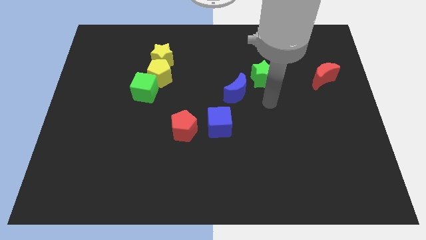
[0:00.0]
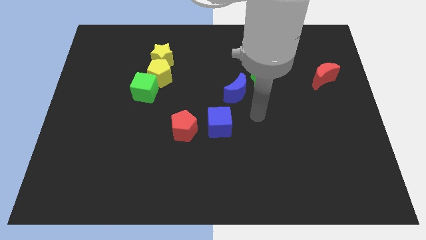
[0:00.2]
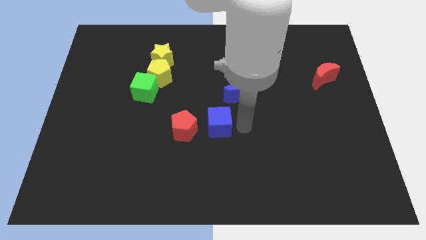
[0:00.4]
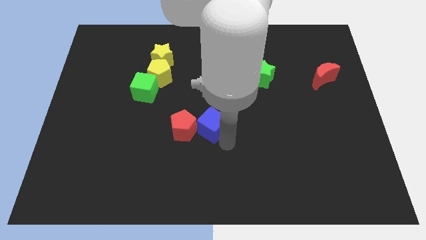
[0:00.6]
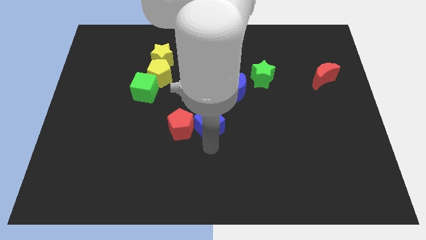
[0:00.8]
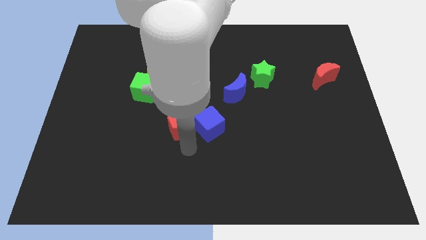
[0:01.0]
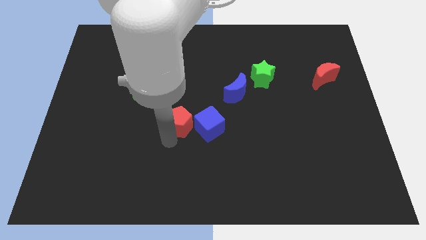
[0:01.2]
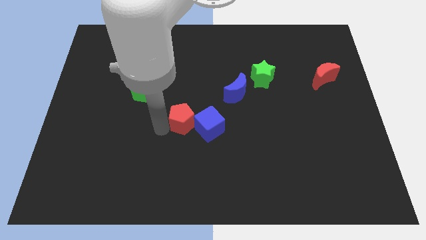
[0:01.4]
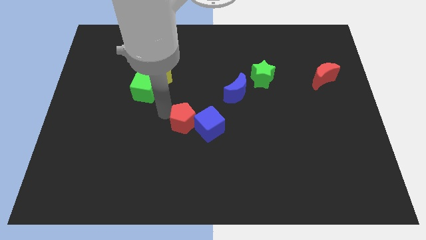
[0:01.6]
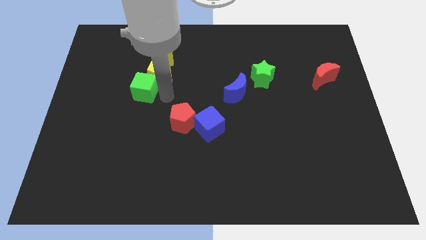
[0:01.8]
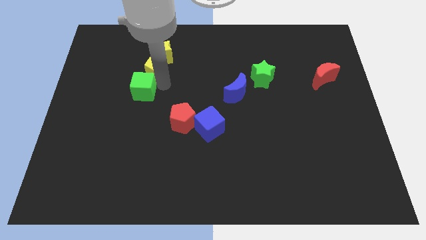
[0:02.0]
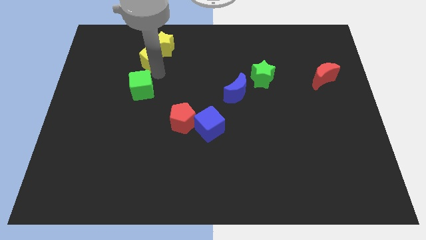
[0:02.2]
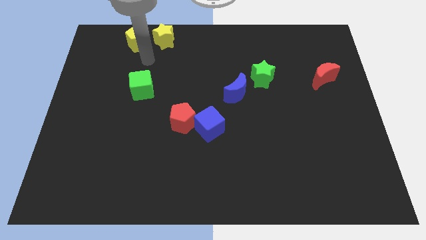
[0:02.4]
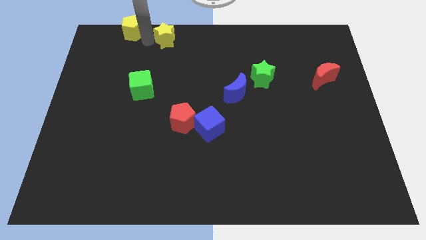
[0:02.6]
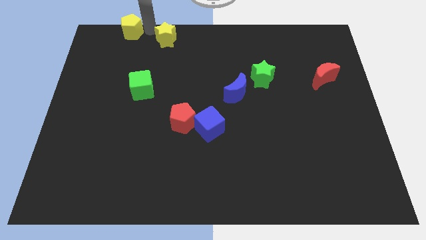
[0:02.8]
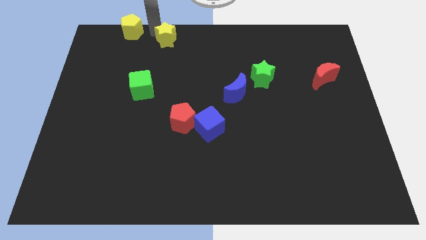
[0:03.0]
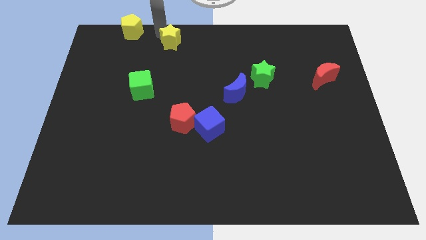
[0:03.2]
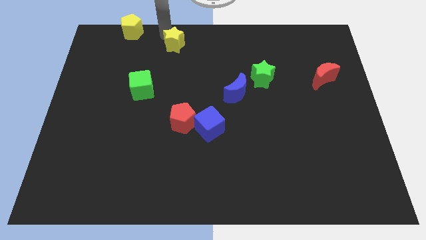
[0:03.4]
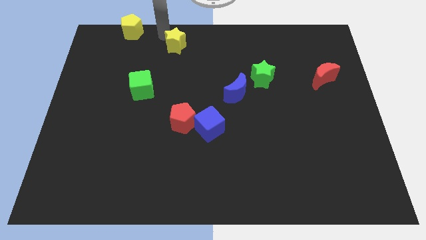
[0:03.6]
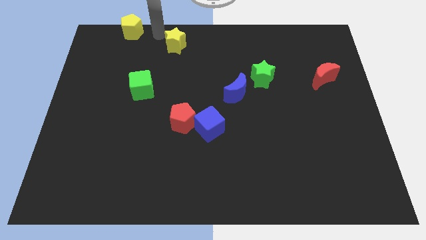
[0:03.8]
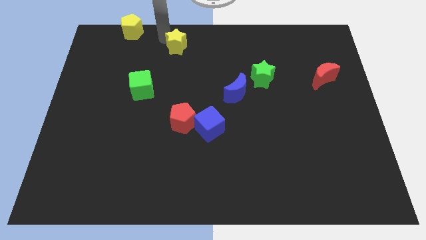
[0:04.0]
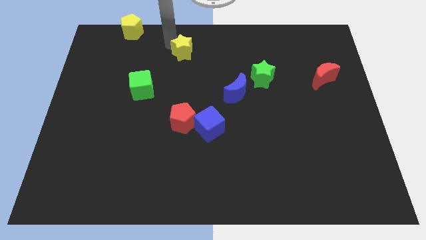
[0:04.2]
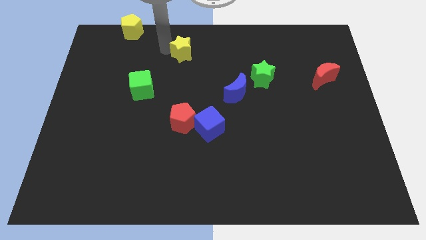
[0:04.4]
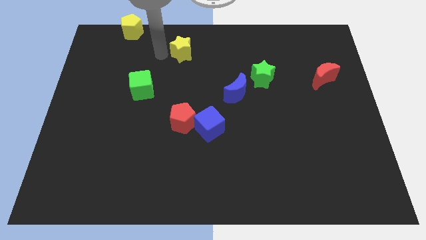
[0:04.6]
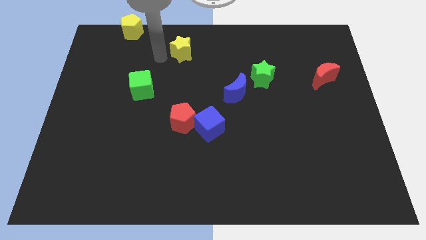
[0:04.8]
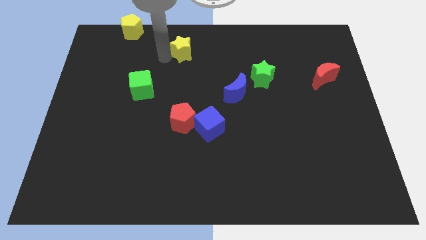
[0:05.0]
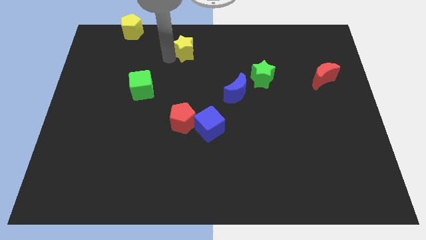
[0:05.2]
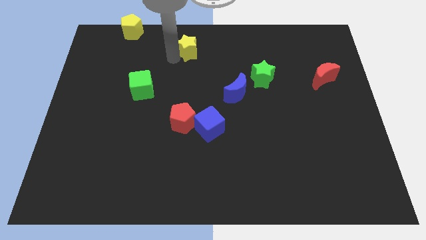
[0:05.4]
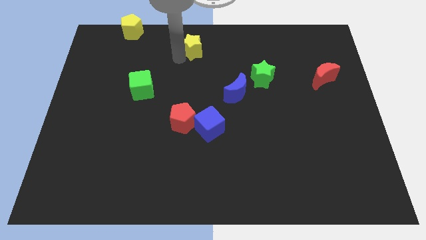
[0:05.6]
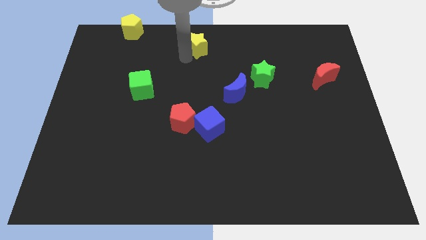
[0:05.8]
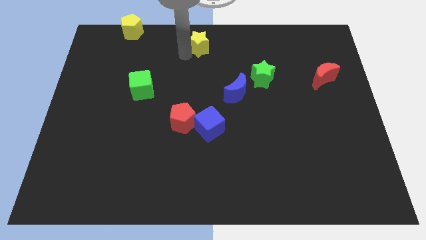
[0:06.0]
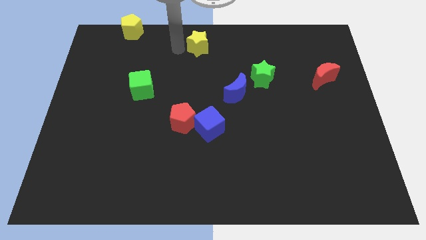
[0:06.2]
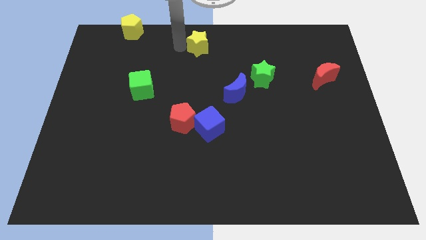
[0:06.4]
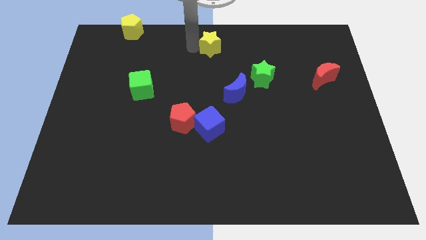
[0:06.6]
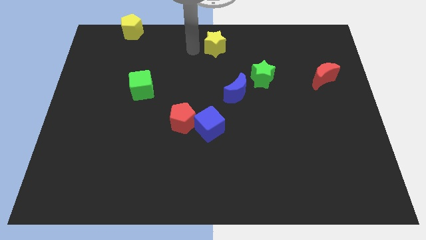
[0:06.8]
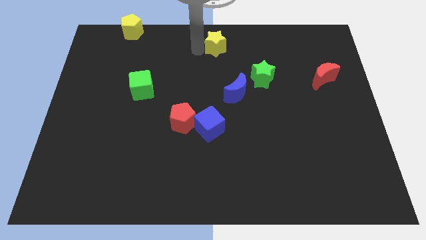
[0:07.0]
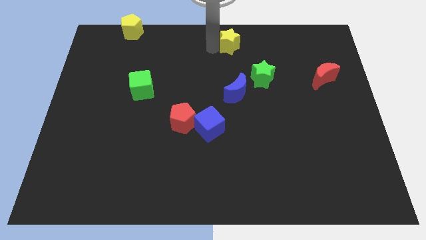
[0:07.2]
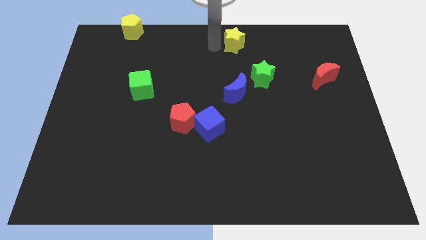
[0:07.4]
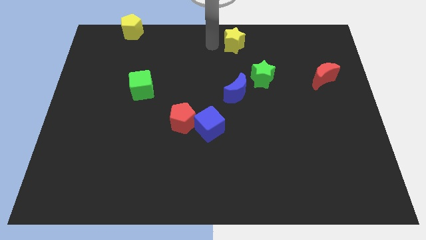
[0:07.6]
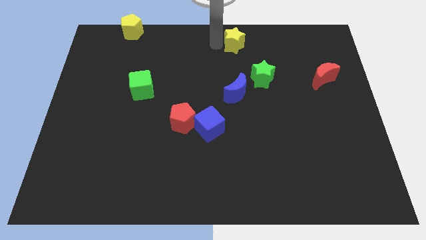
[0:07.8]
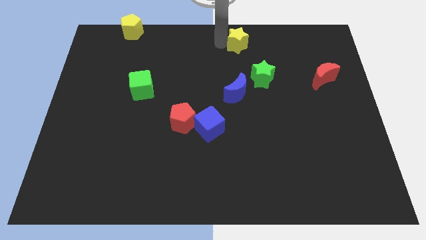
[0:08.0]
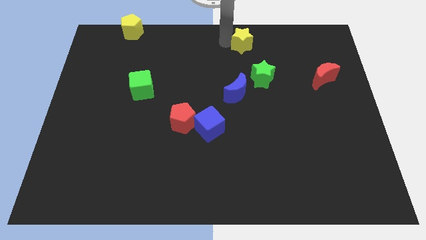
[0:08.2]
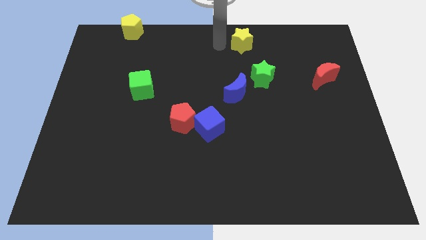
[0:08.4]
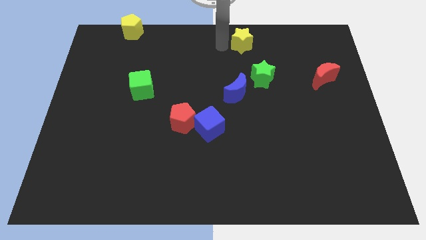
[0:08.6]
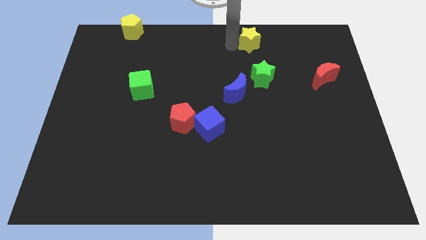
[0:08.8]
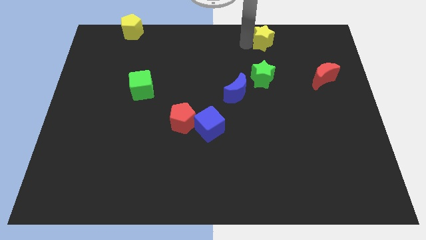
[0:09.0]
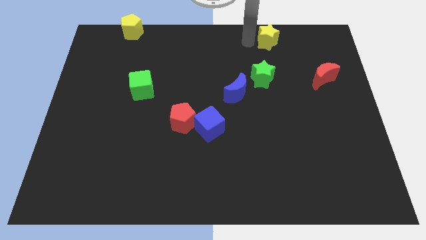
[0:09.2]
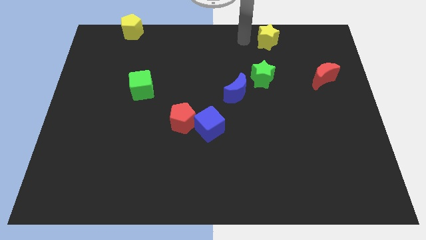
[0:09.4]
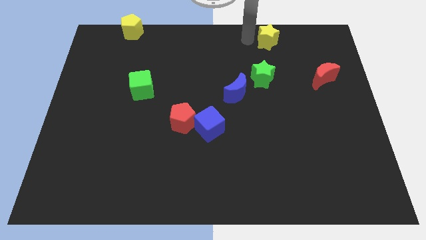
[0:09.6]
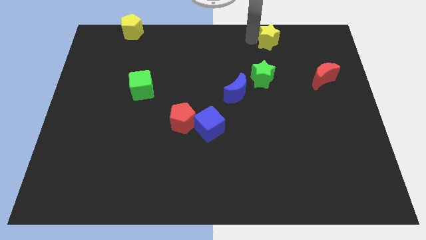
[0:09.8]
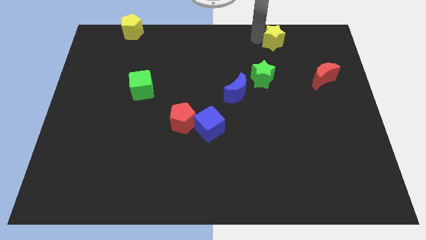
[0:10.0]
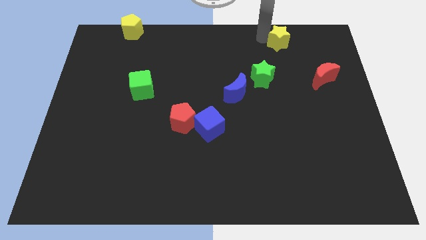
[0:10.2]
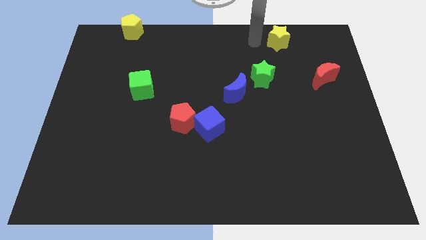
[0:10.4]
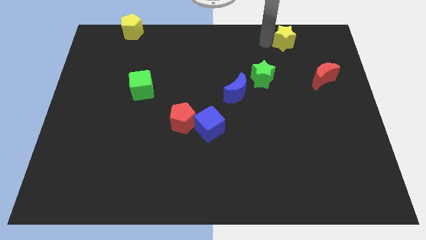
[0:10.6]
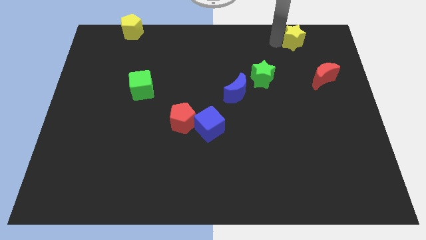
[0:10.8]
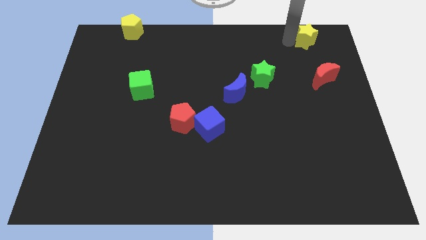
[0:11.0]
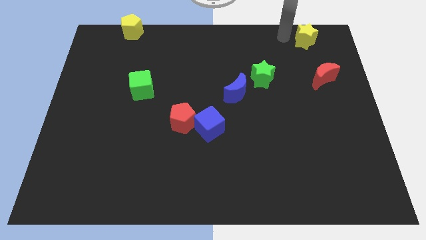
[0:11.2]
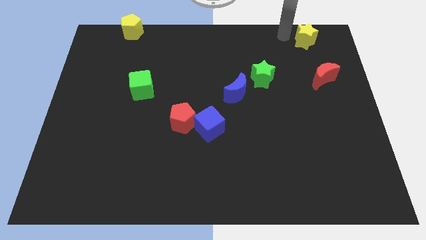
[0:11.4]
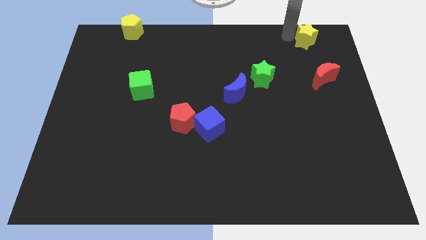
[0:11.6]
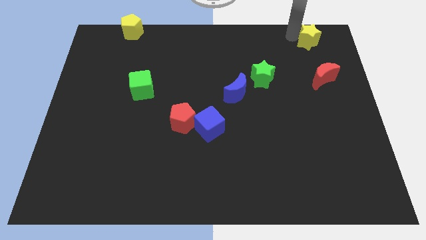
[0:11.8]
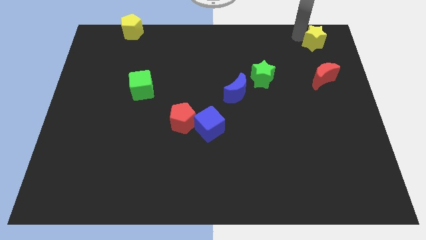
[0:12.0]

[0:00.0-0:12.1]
slide the yellow star to the upper right corner
